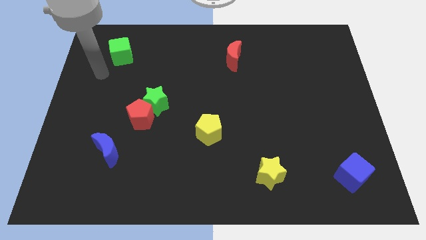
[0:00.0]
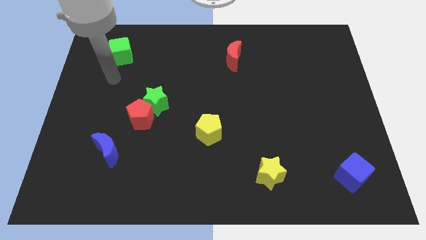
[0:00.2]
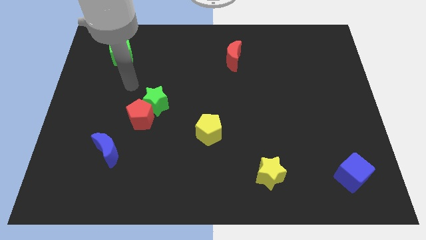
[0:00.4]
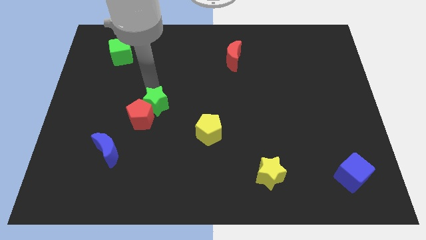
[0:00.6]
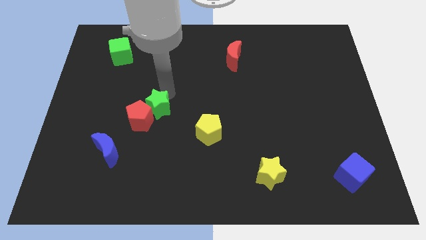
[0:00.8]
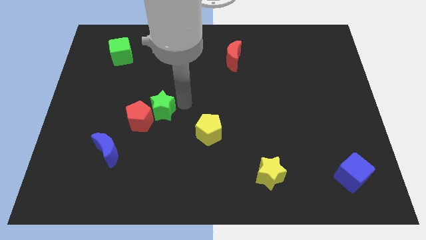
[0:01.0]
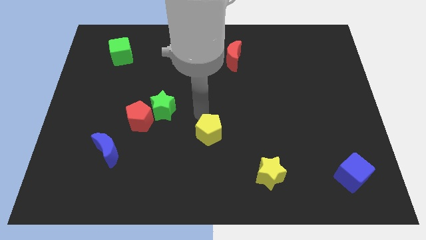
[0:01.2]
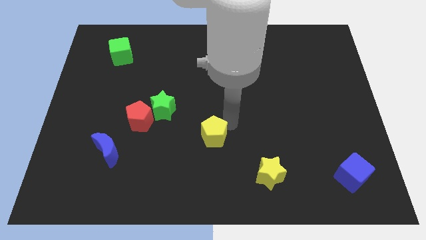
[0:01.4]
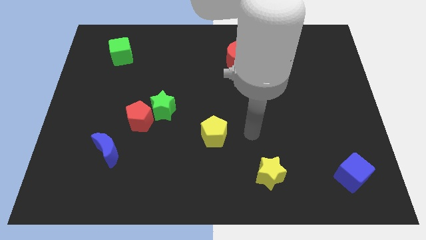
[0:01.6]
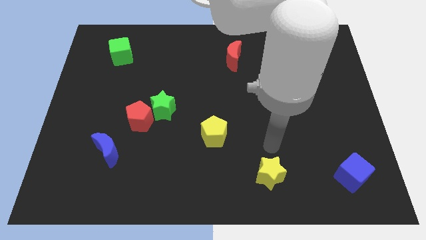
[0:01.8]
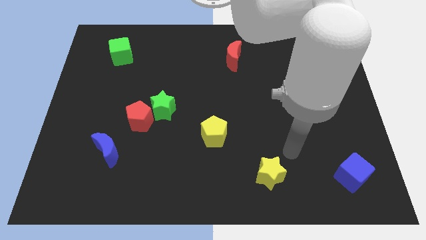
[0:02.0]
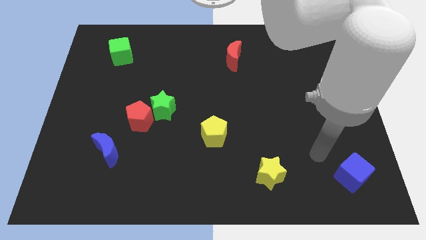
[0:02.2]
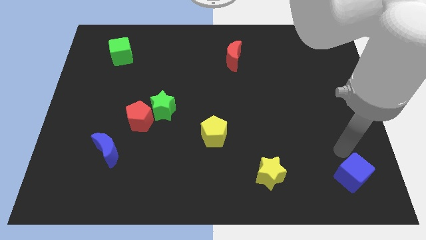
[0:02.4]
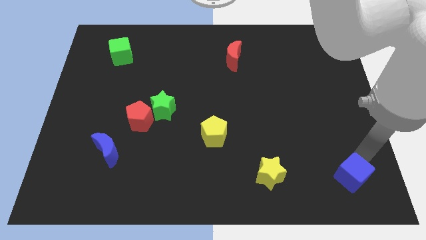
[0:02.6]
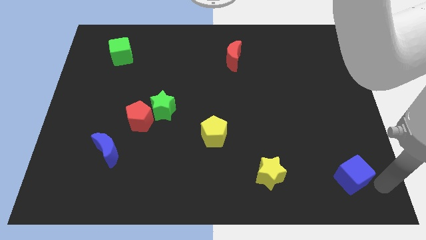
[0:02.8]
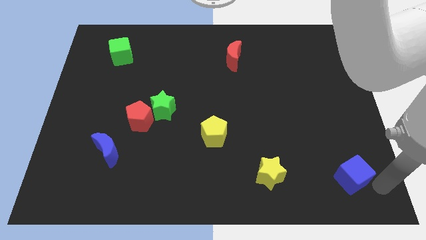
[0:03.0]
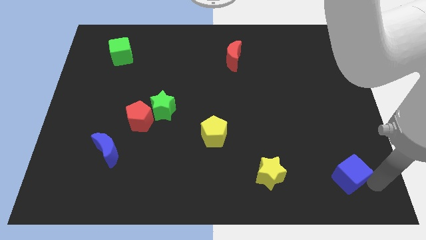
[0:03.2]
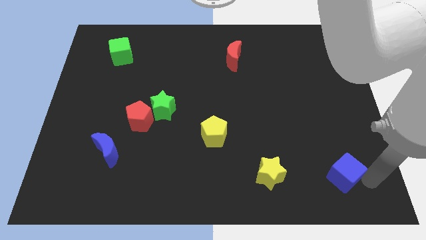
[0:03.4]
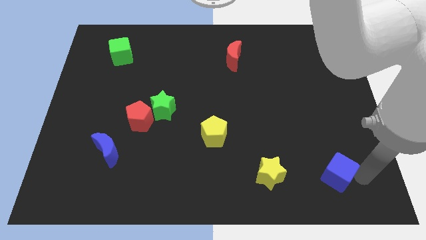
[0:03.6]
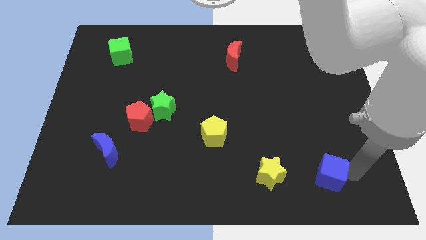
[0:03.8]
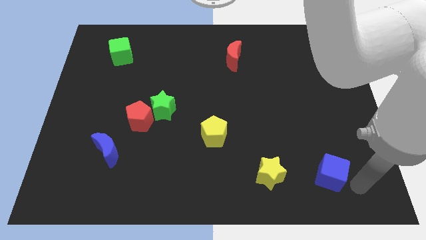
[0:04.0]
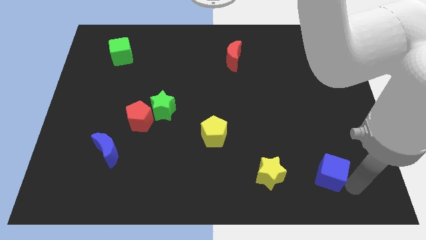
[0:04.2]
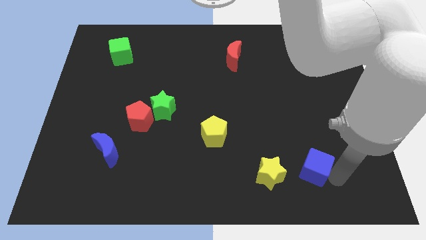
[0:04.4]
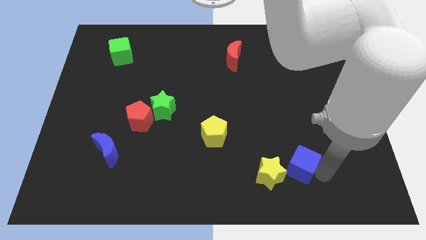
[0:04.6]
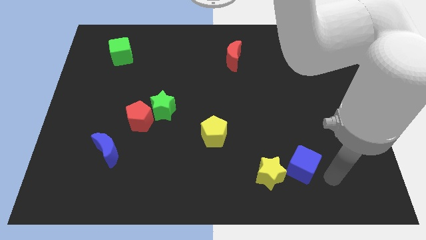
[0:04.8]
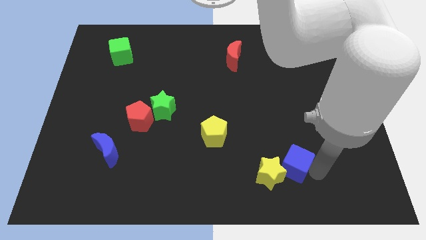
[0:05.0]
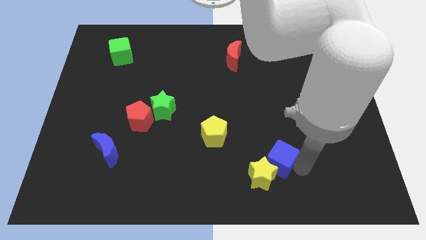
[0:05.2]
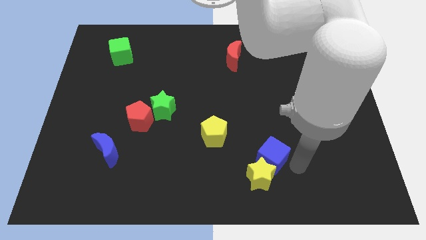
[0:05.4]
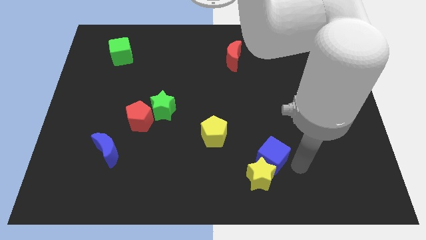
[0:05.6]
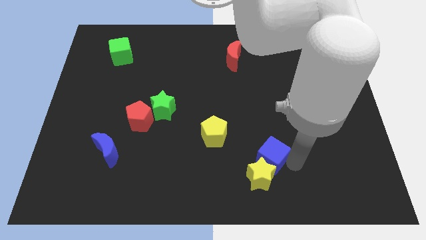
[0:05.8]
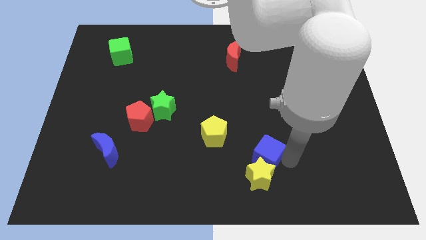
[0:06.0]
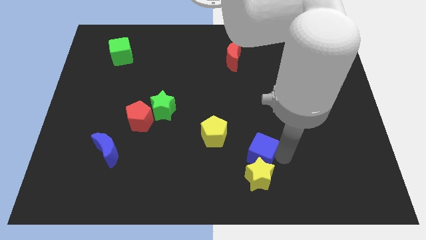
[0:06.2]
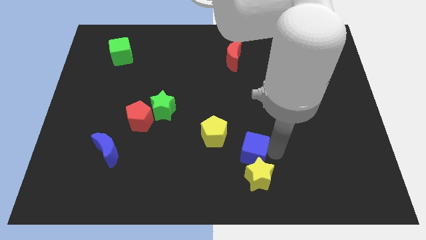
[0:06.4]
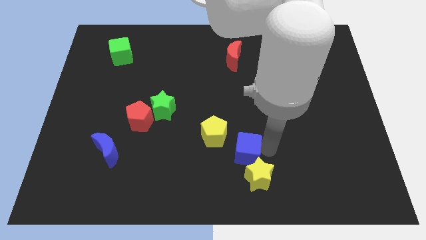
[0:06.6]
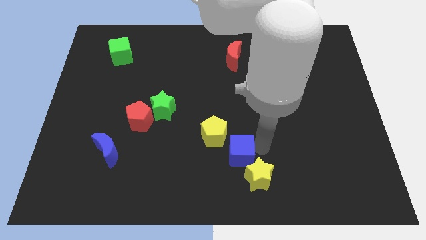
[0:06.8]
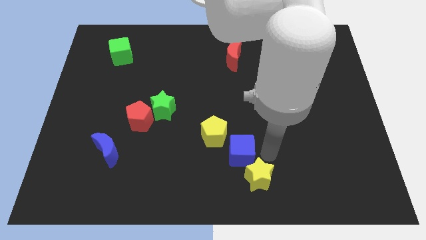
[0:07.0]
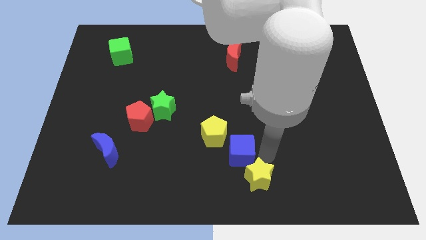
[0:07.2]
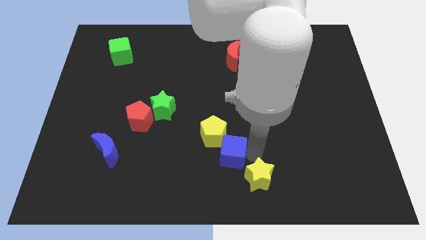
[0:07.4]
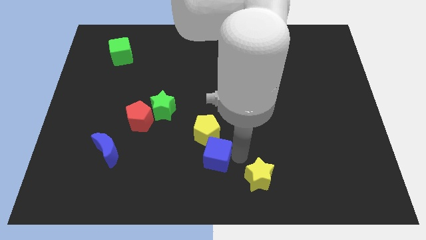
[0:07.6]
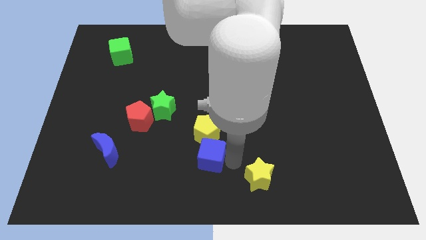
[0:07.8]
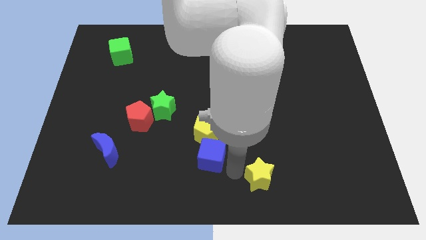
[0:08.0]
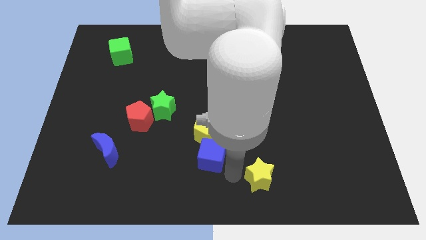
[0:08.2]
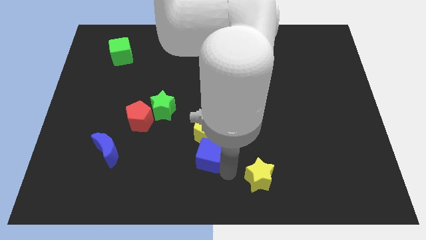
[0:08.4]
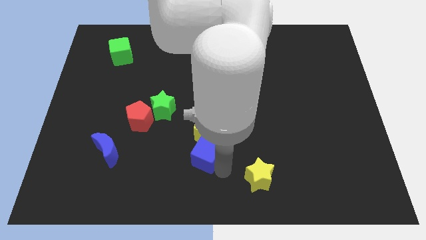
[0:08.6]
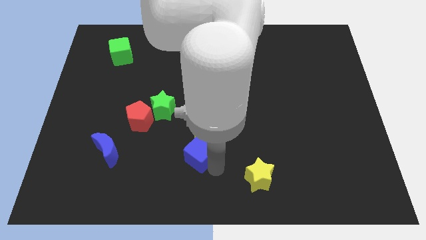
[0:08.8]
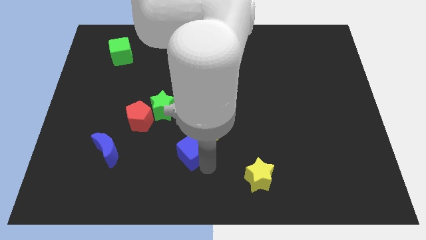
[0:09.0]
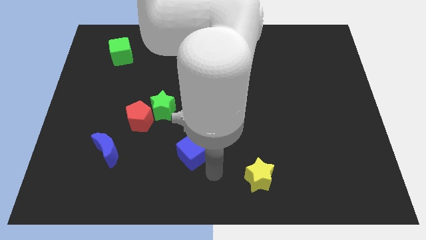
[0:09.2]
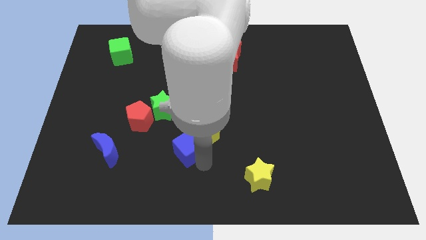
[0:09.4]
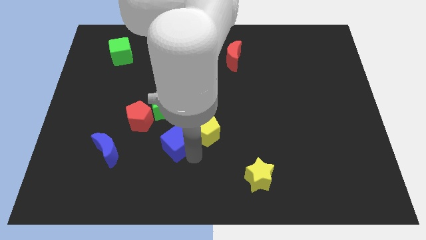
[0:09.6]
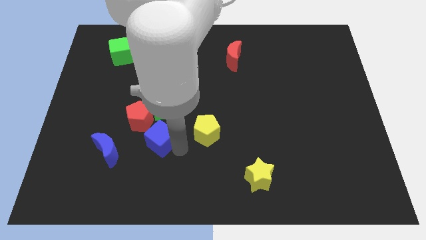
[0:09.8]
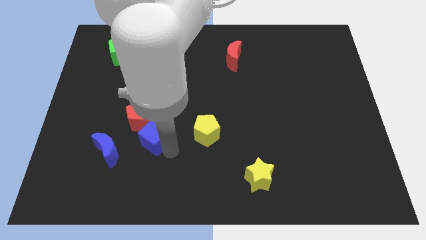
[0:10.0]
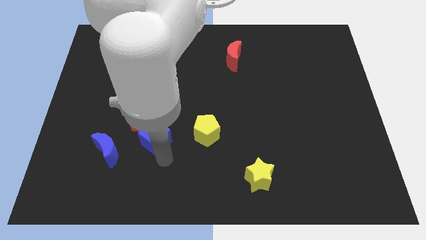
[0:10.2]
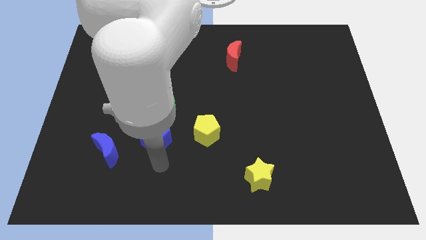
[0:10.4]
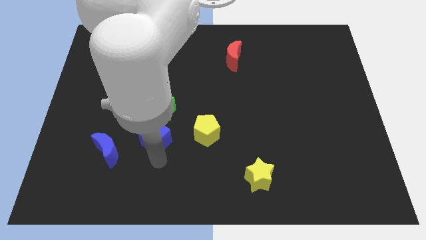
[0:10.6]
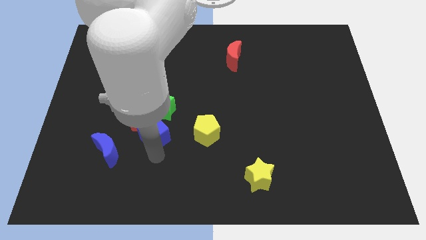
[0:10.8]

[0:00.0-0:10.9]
move the blue cube towards the red pentagon

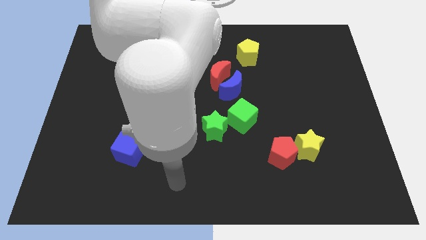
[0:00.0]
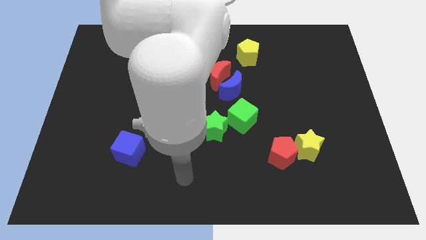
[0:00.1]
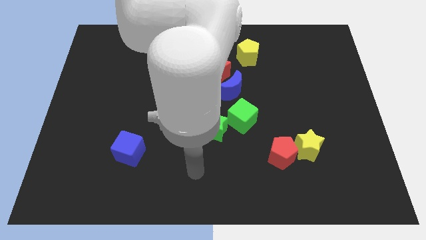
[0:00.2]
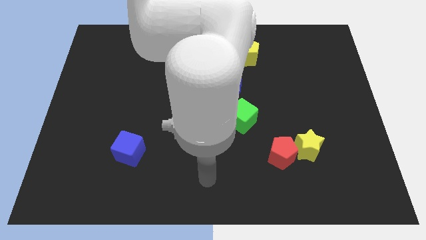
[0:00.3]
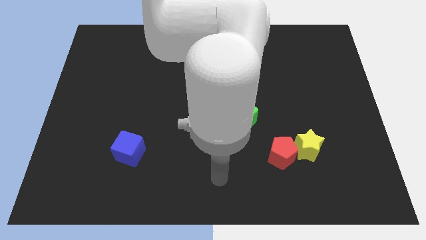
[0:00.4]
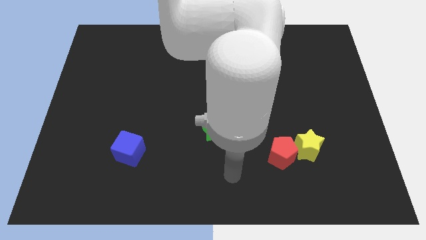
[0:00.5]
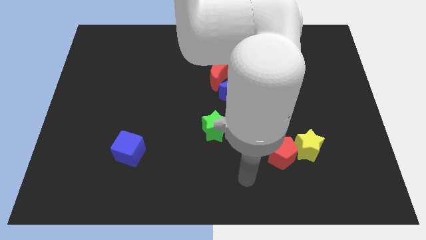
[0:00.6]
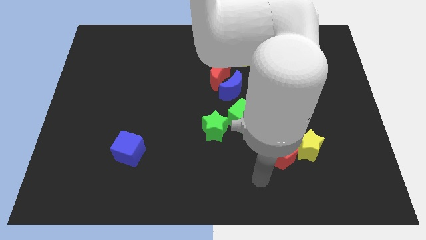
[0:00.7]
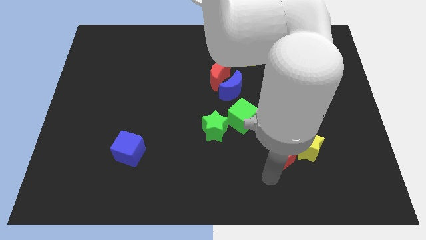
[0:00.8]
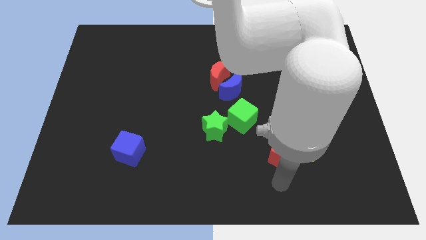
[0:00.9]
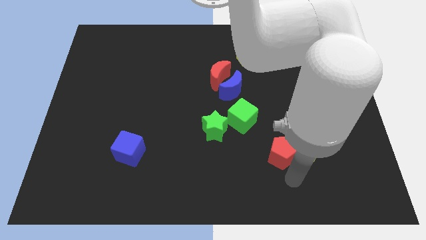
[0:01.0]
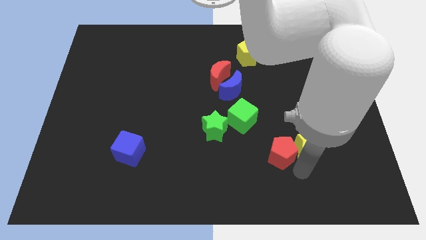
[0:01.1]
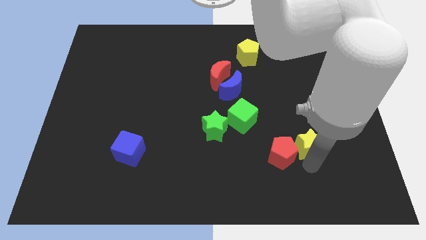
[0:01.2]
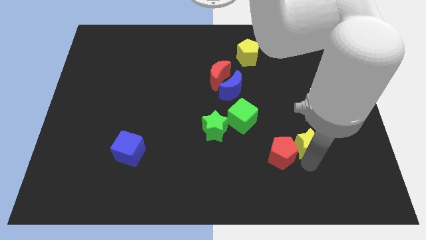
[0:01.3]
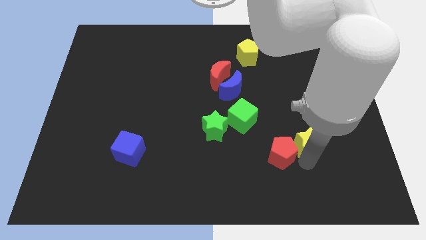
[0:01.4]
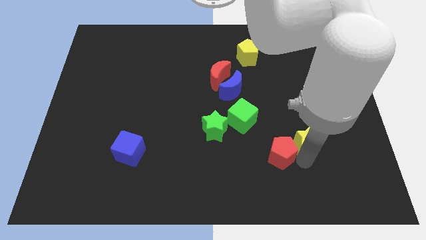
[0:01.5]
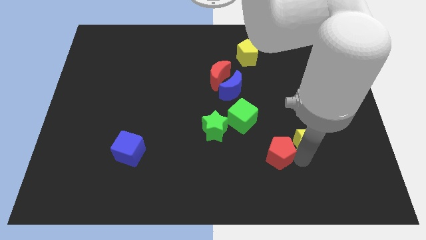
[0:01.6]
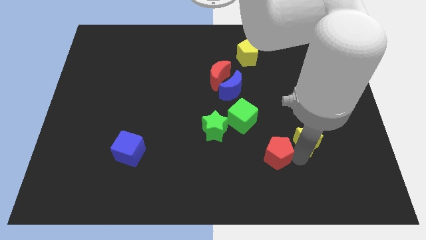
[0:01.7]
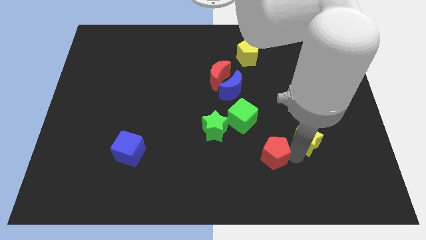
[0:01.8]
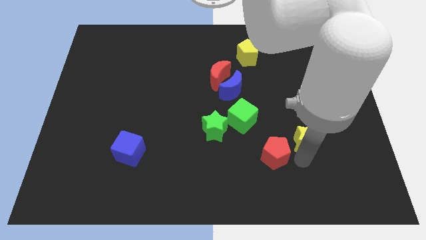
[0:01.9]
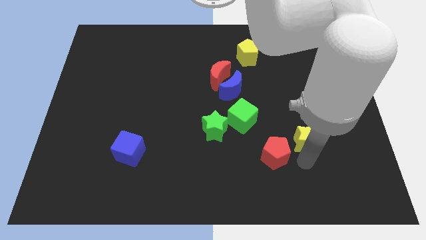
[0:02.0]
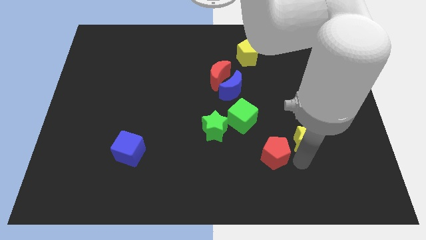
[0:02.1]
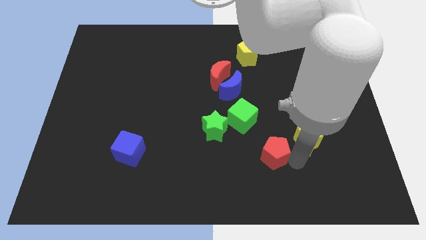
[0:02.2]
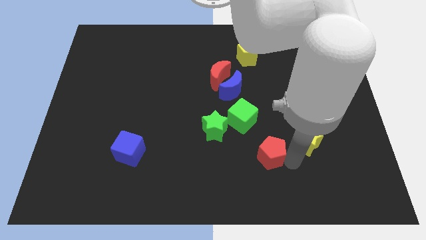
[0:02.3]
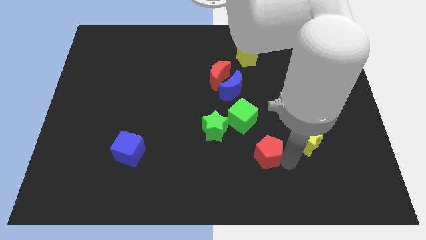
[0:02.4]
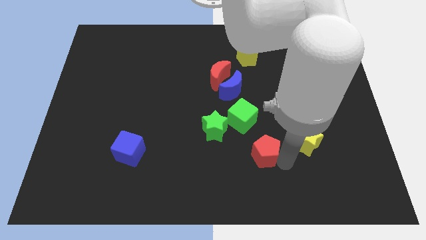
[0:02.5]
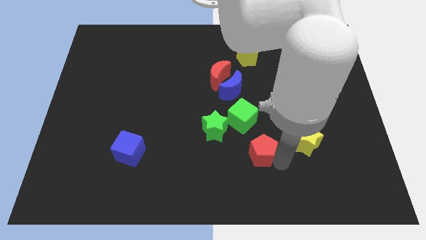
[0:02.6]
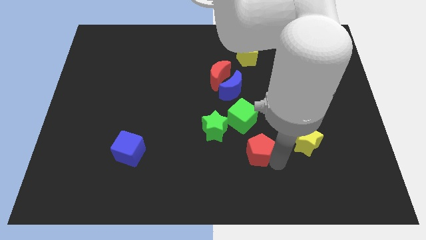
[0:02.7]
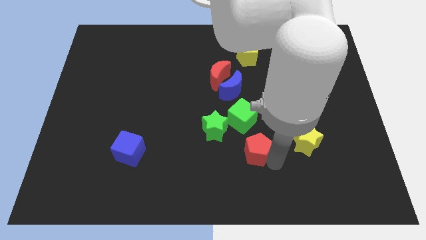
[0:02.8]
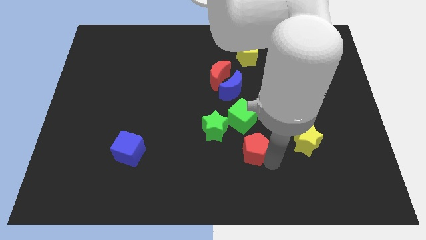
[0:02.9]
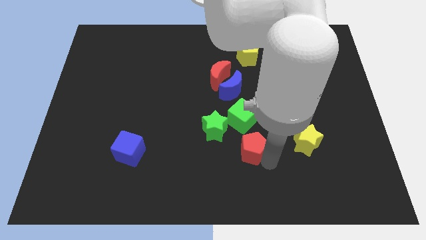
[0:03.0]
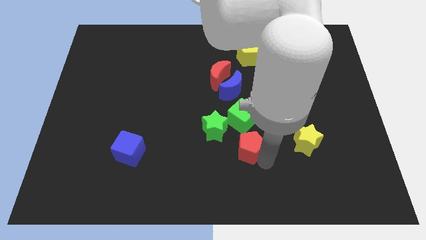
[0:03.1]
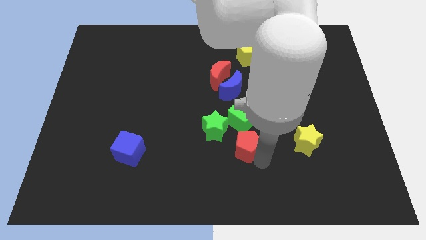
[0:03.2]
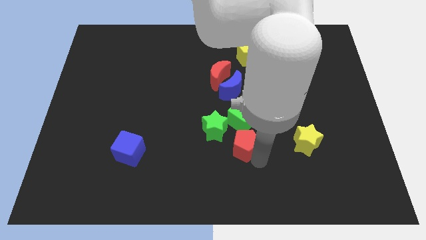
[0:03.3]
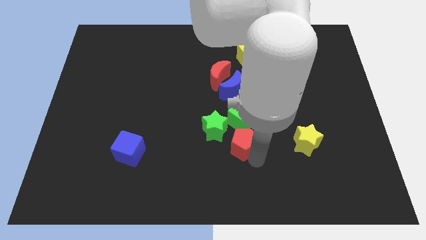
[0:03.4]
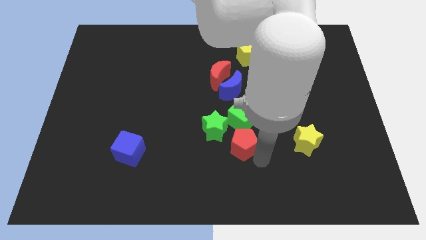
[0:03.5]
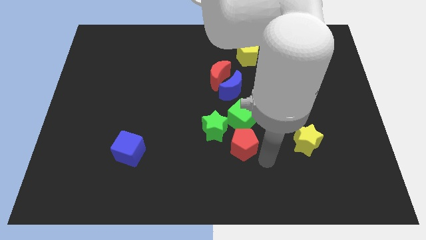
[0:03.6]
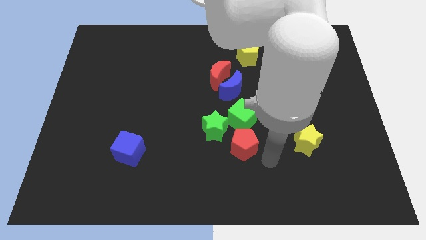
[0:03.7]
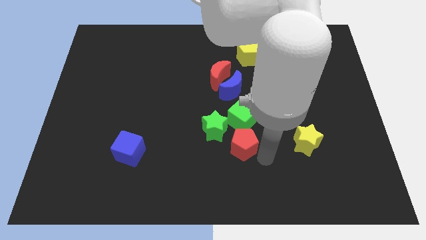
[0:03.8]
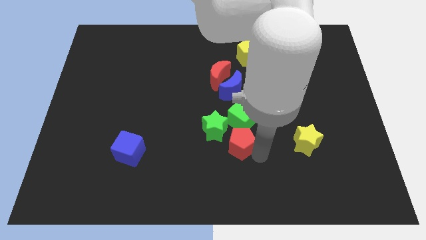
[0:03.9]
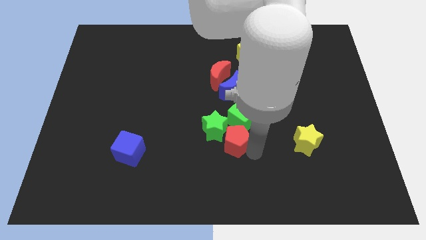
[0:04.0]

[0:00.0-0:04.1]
move the red pentagon towards the green star
